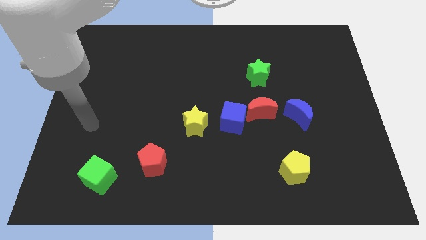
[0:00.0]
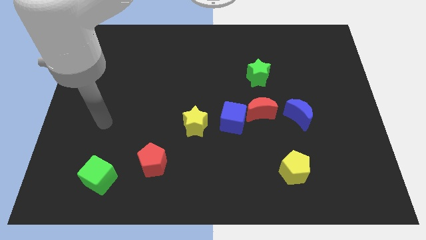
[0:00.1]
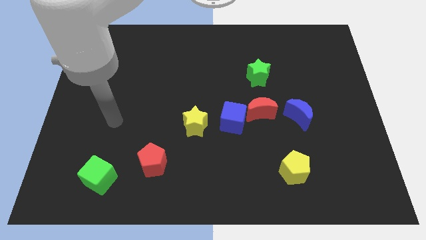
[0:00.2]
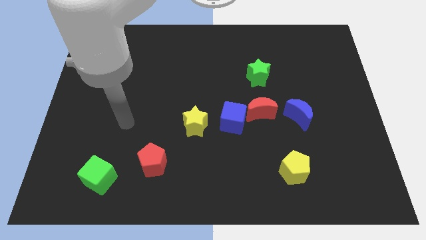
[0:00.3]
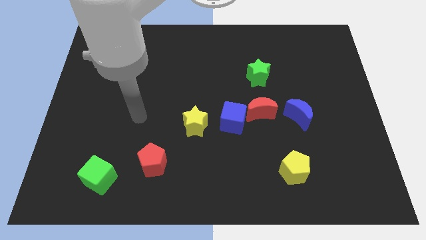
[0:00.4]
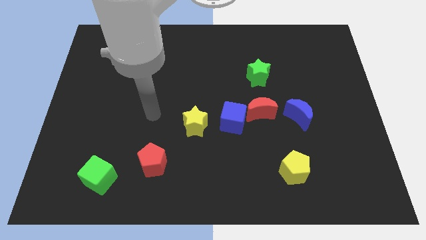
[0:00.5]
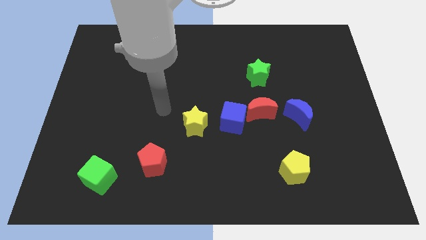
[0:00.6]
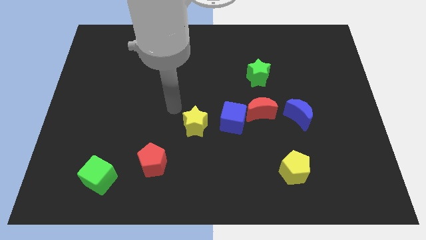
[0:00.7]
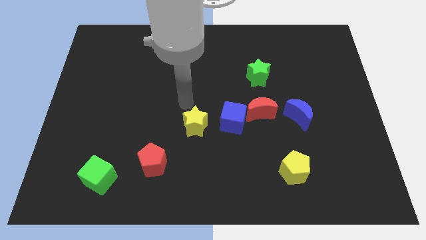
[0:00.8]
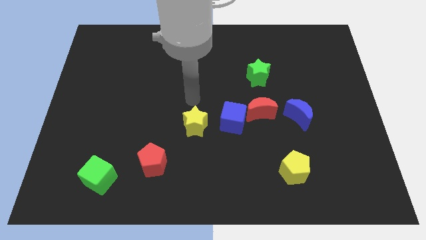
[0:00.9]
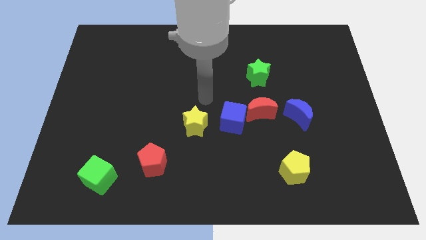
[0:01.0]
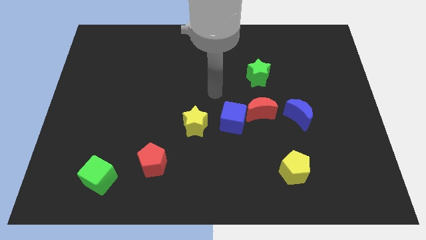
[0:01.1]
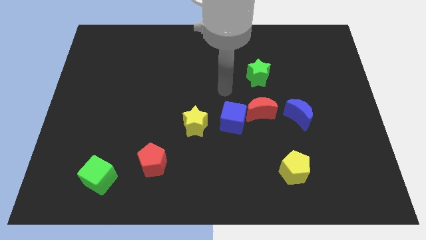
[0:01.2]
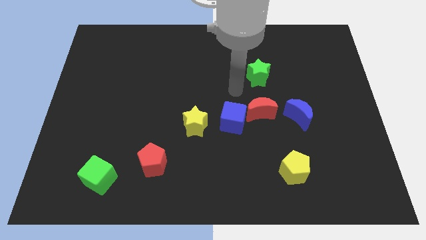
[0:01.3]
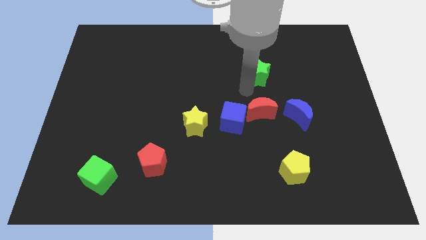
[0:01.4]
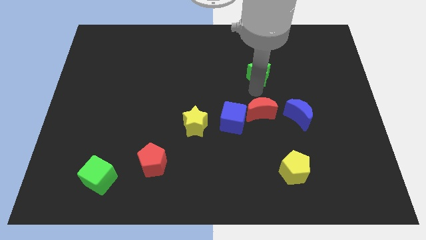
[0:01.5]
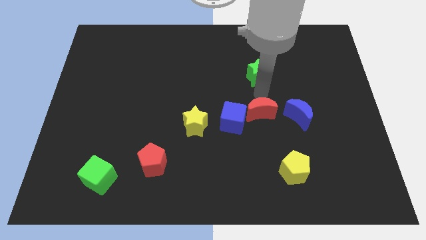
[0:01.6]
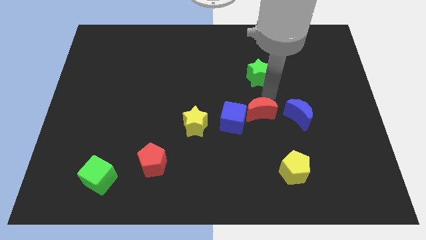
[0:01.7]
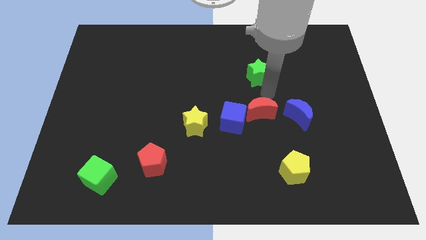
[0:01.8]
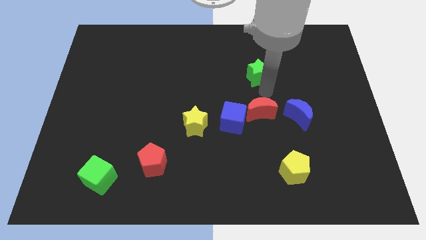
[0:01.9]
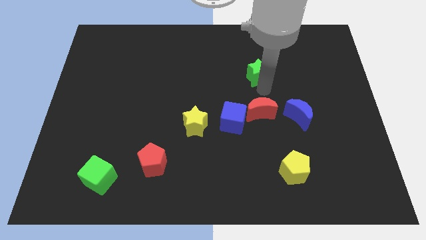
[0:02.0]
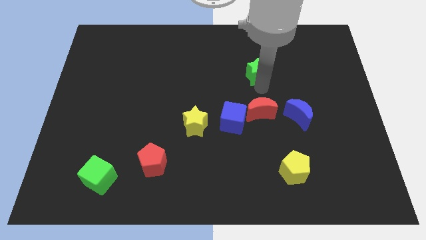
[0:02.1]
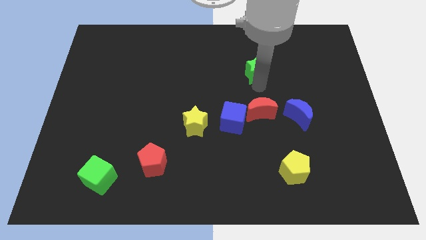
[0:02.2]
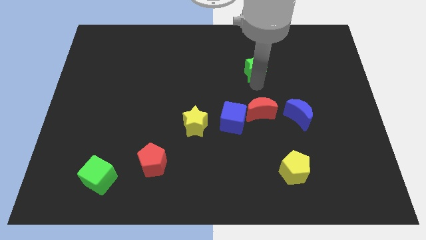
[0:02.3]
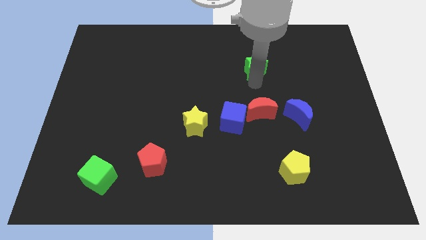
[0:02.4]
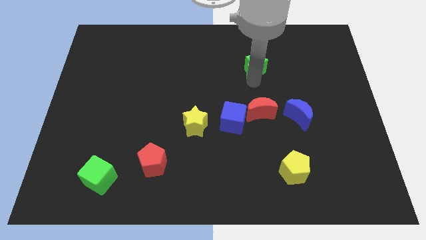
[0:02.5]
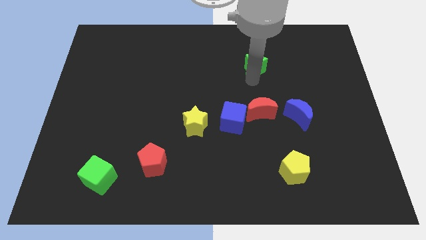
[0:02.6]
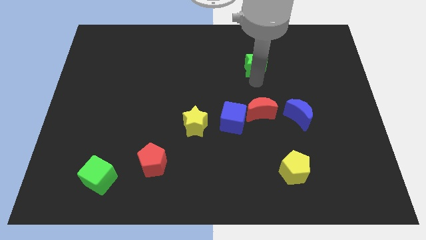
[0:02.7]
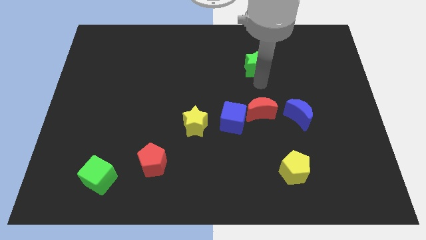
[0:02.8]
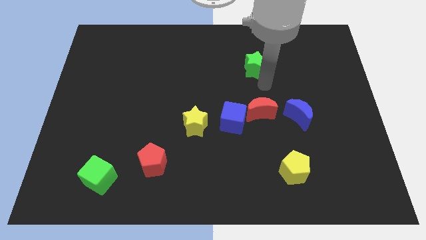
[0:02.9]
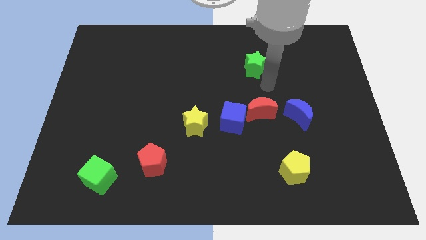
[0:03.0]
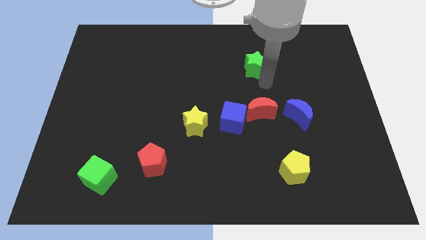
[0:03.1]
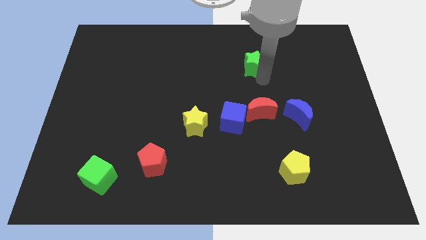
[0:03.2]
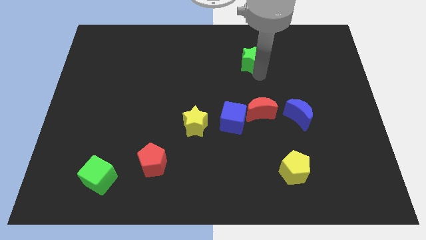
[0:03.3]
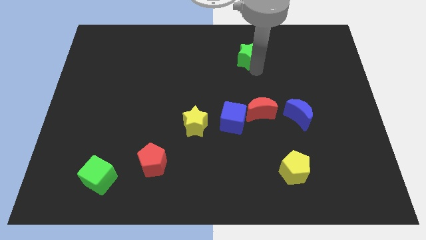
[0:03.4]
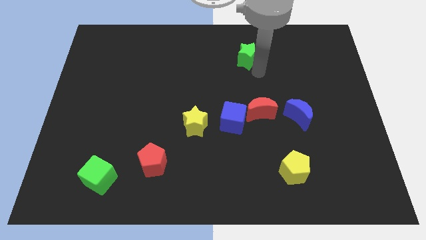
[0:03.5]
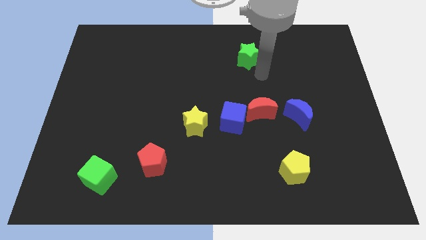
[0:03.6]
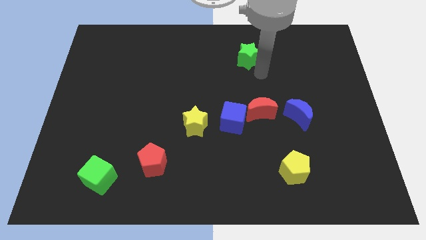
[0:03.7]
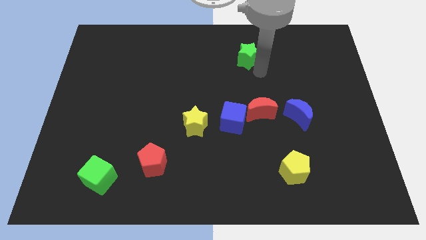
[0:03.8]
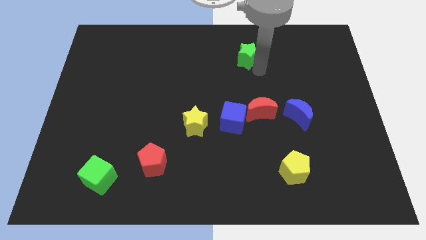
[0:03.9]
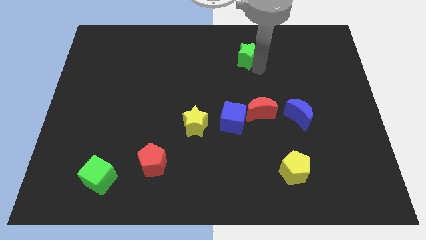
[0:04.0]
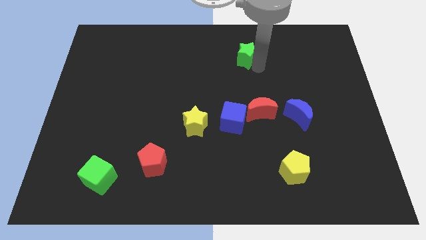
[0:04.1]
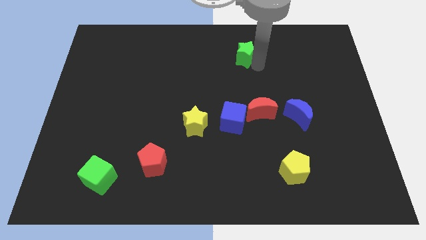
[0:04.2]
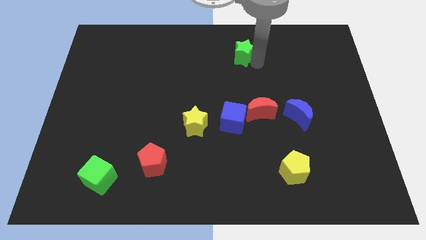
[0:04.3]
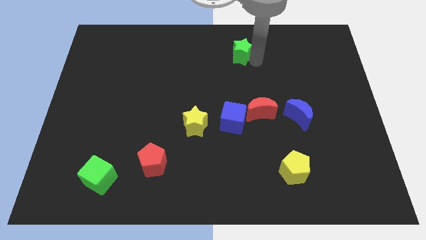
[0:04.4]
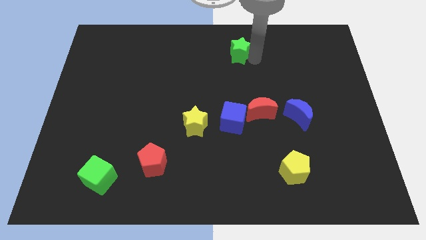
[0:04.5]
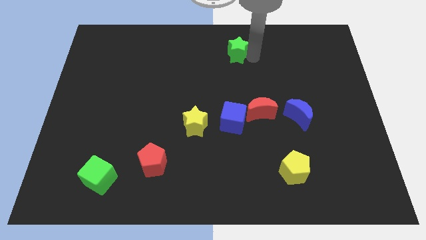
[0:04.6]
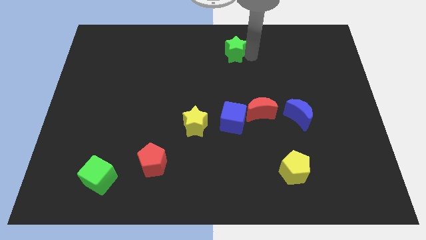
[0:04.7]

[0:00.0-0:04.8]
move the green star to the top side

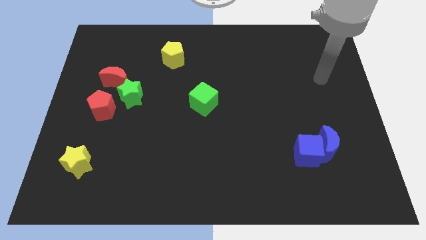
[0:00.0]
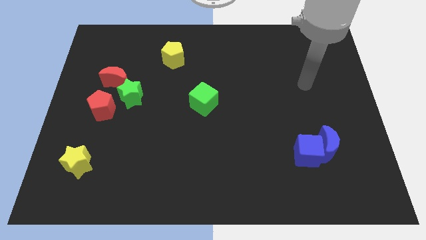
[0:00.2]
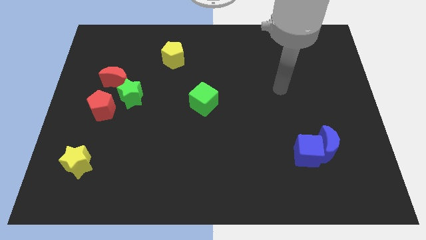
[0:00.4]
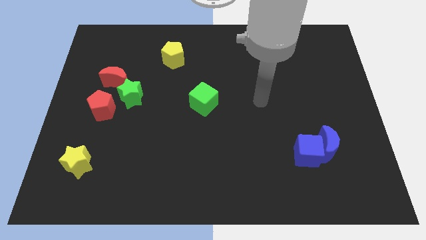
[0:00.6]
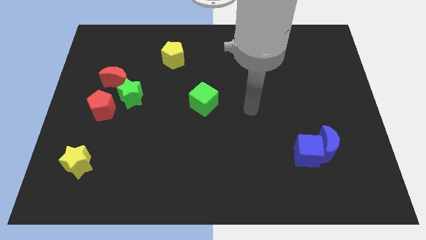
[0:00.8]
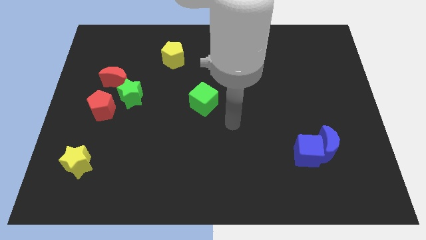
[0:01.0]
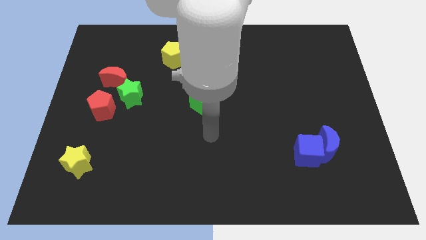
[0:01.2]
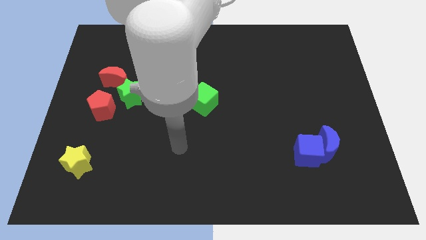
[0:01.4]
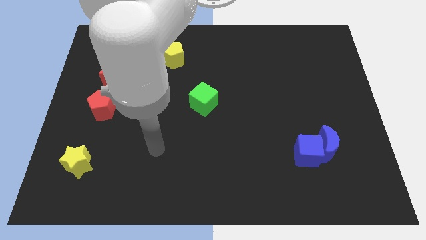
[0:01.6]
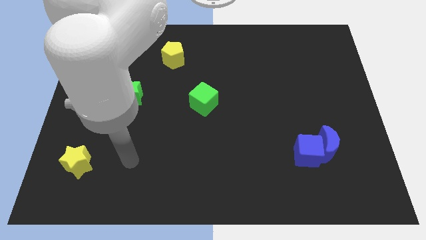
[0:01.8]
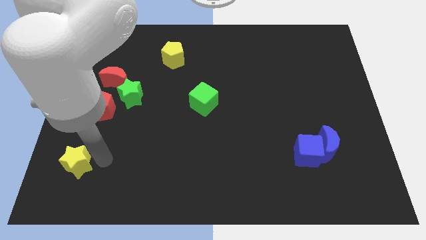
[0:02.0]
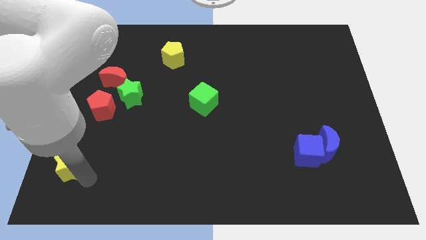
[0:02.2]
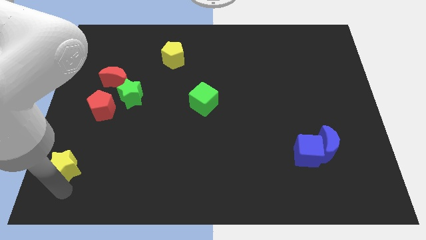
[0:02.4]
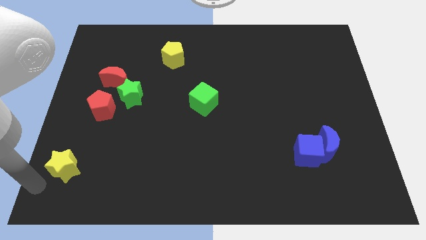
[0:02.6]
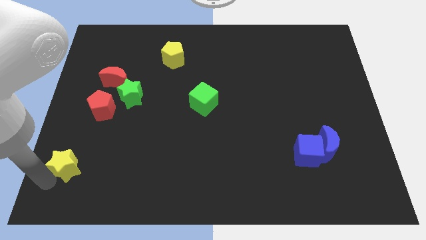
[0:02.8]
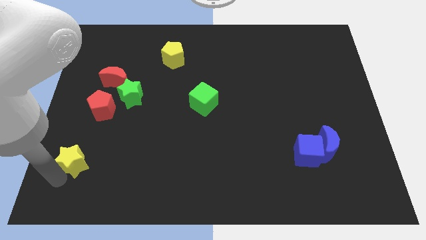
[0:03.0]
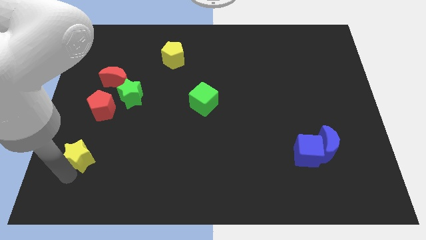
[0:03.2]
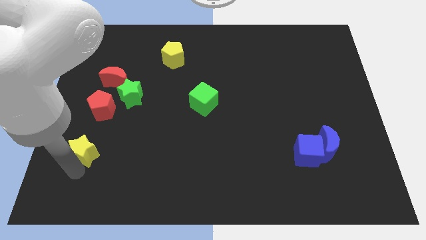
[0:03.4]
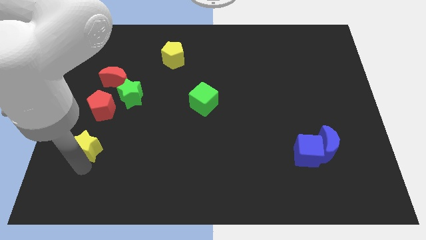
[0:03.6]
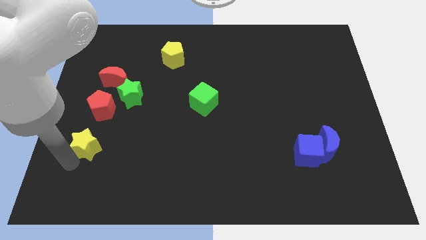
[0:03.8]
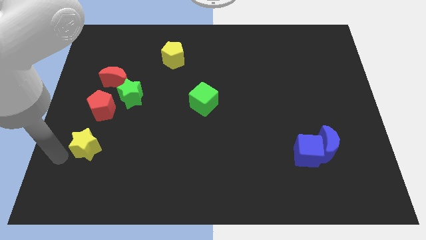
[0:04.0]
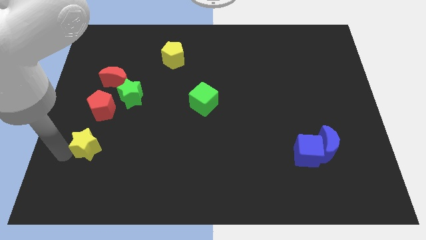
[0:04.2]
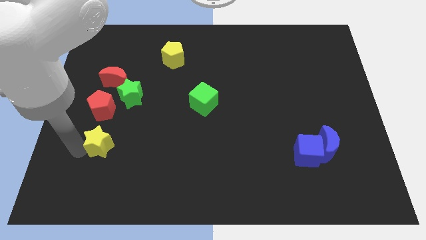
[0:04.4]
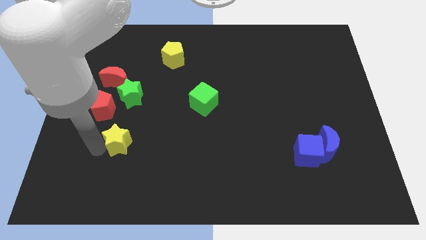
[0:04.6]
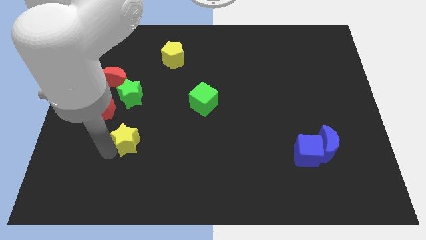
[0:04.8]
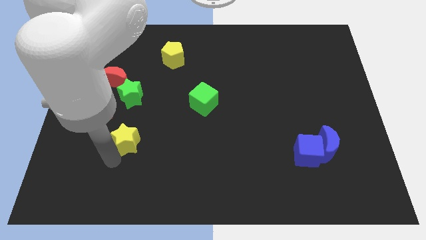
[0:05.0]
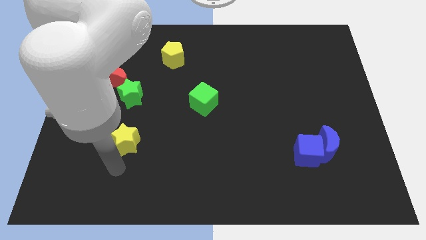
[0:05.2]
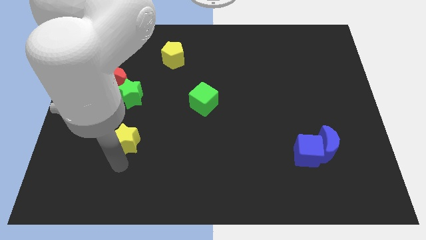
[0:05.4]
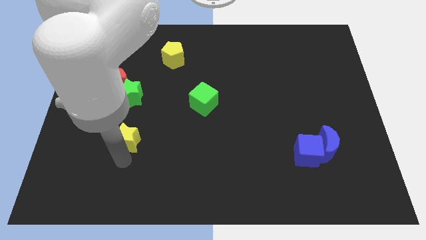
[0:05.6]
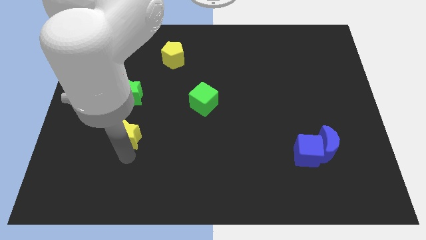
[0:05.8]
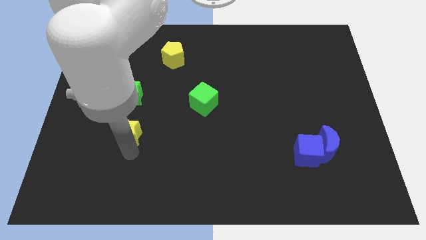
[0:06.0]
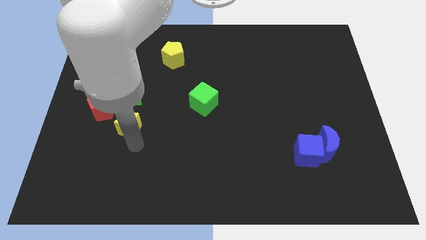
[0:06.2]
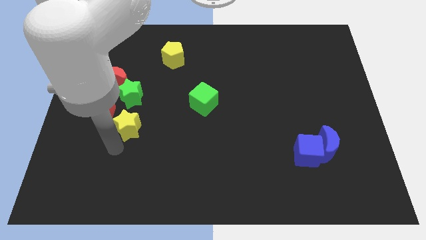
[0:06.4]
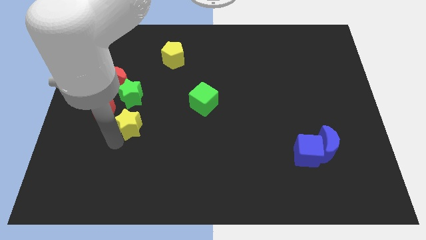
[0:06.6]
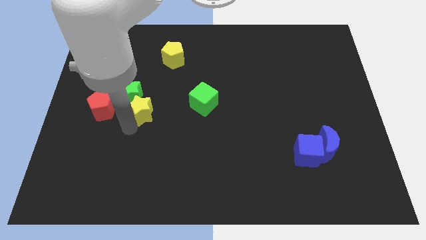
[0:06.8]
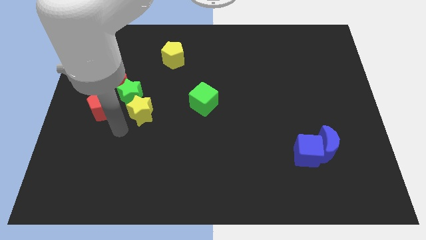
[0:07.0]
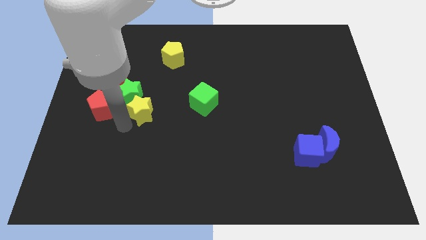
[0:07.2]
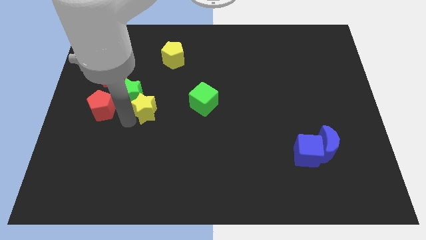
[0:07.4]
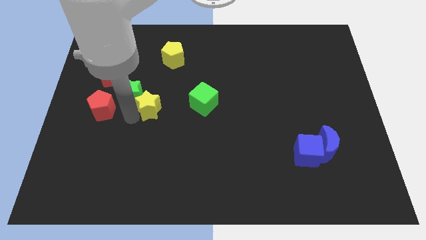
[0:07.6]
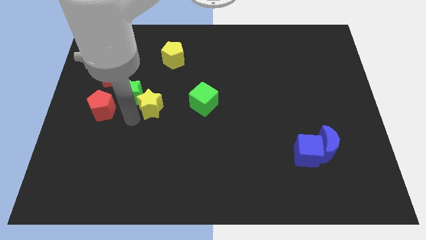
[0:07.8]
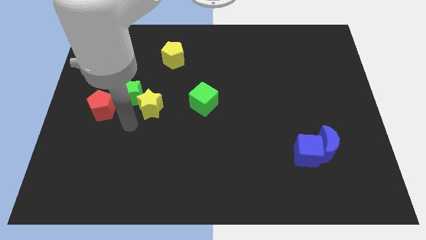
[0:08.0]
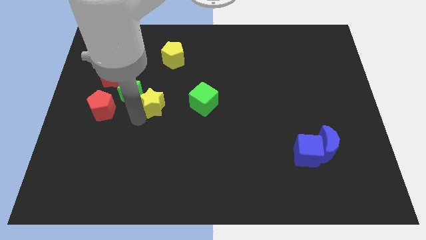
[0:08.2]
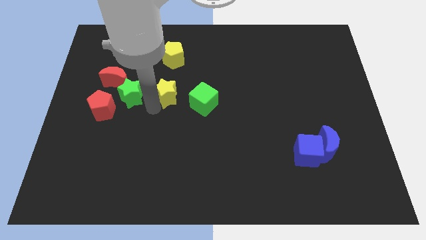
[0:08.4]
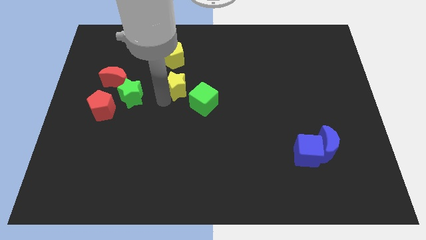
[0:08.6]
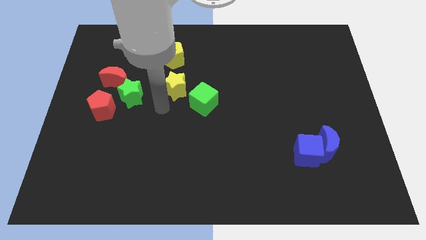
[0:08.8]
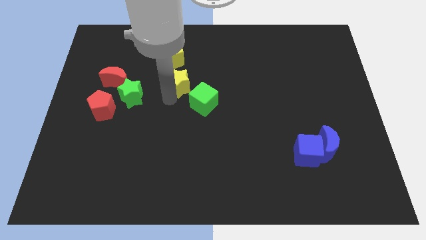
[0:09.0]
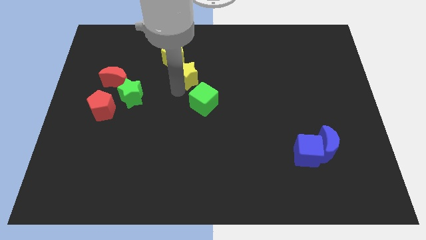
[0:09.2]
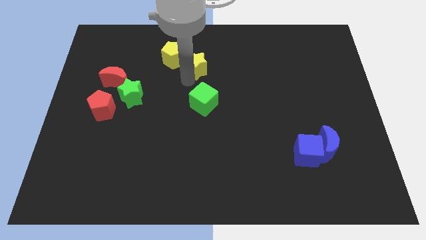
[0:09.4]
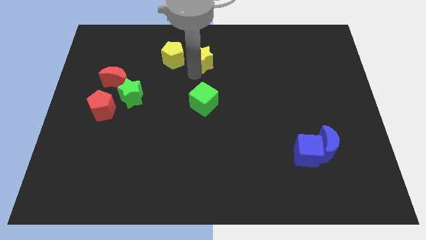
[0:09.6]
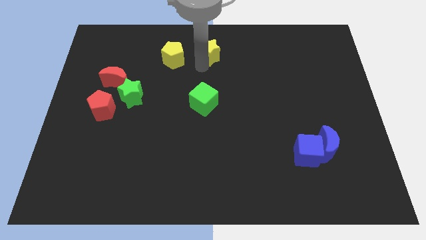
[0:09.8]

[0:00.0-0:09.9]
move the yellow star to the towards your base
